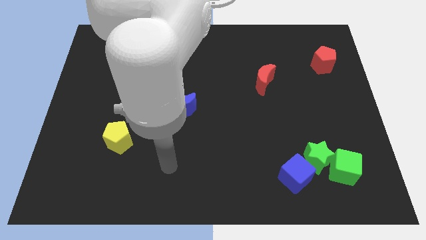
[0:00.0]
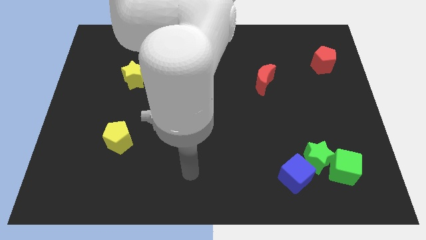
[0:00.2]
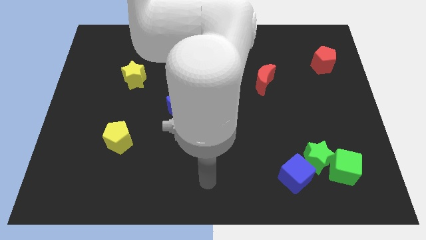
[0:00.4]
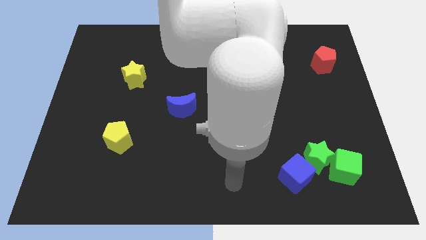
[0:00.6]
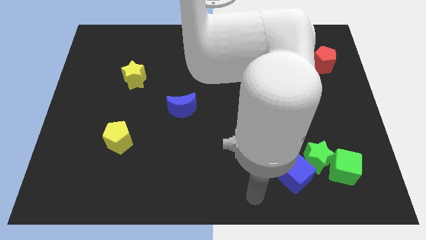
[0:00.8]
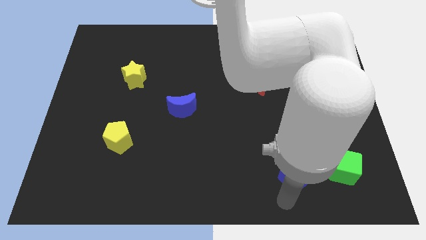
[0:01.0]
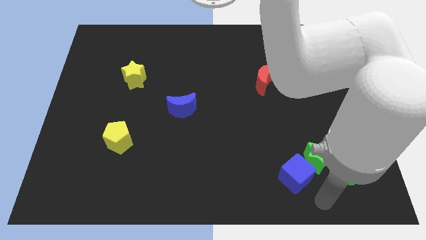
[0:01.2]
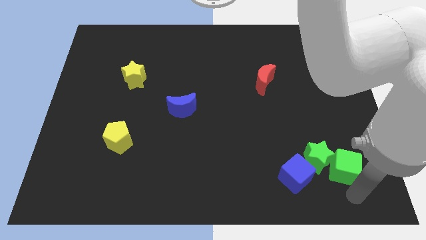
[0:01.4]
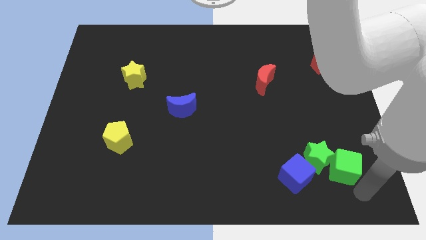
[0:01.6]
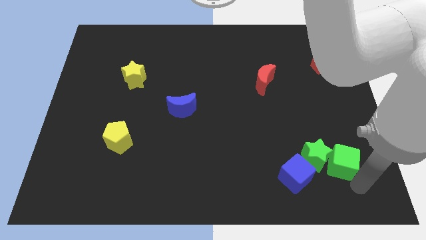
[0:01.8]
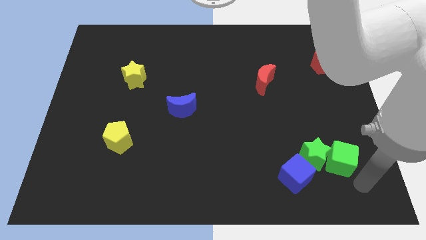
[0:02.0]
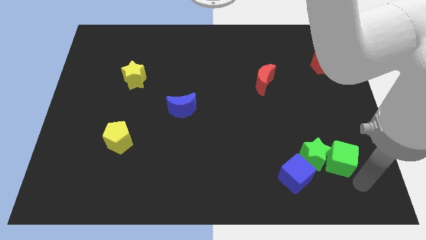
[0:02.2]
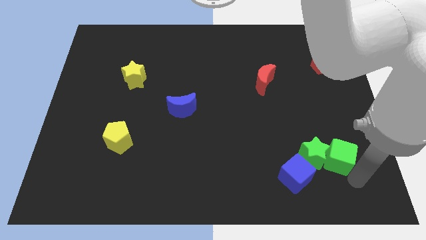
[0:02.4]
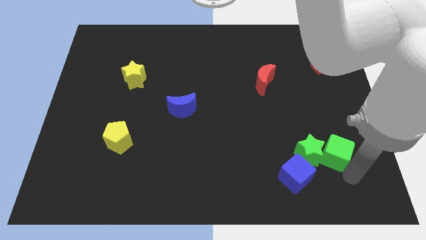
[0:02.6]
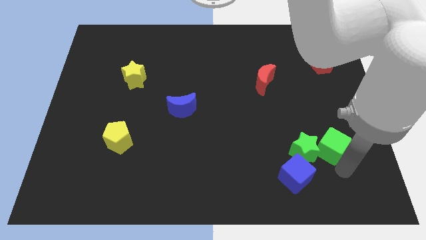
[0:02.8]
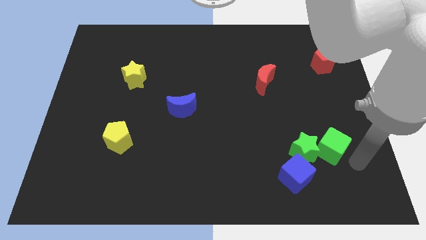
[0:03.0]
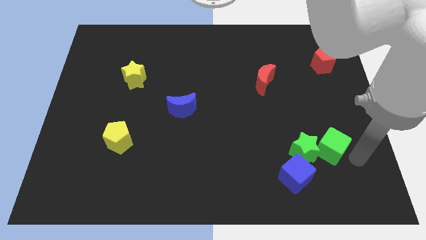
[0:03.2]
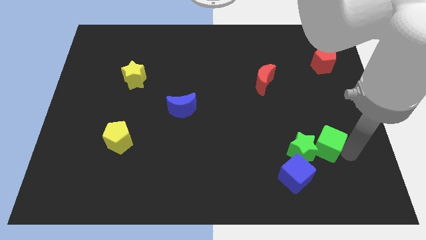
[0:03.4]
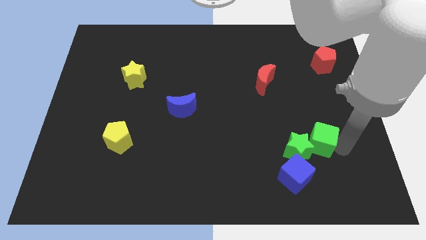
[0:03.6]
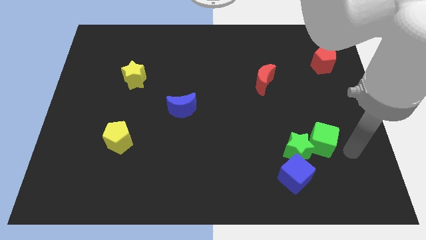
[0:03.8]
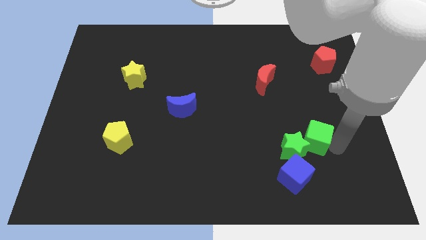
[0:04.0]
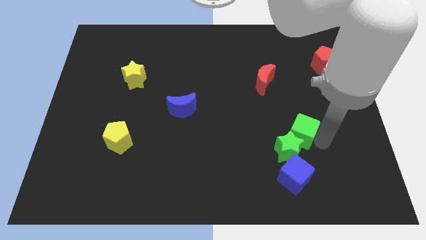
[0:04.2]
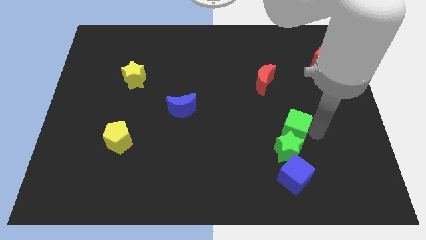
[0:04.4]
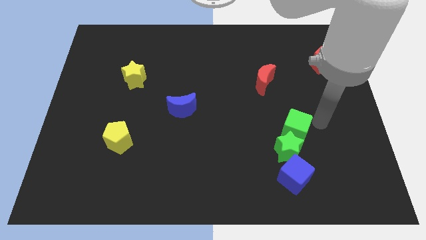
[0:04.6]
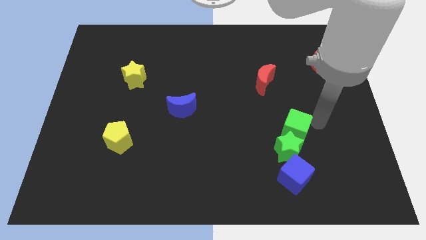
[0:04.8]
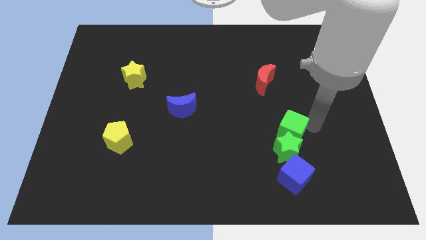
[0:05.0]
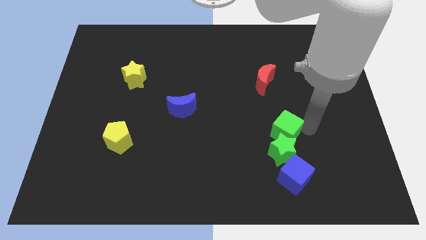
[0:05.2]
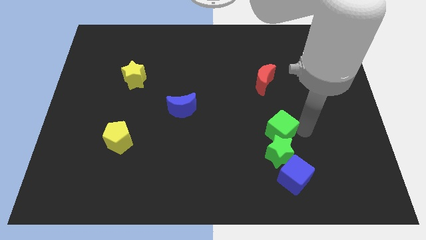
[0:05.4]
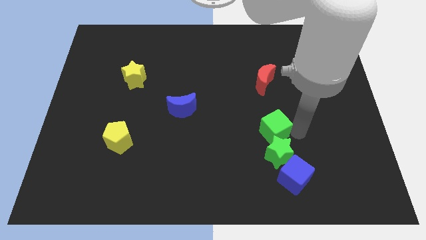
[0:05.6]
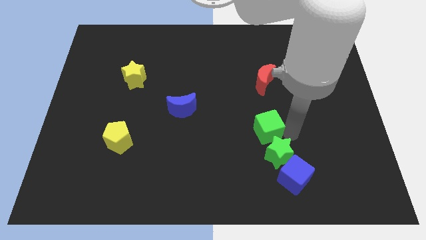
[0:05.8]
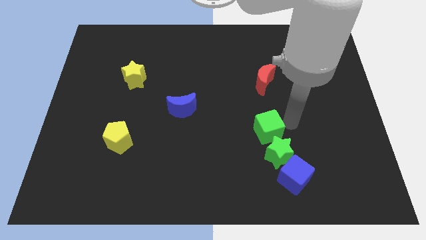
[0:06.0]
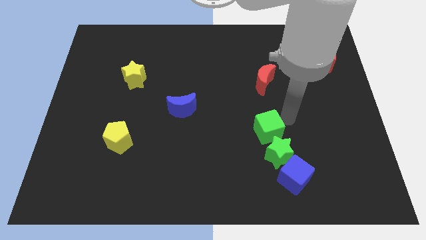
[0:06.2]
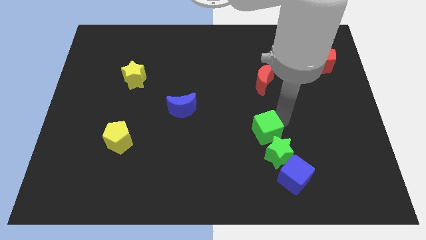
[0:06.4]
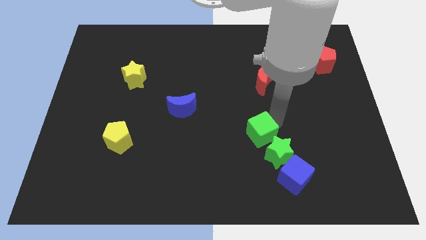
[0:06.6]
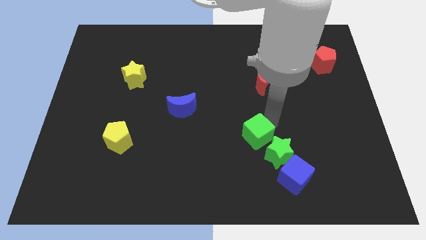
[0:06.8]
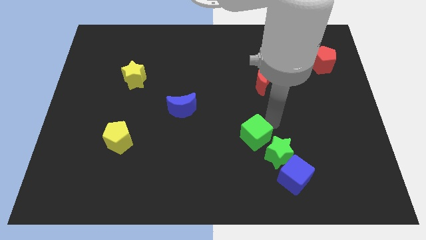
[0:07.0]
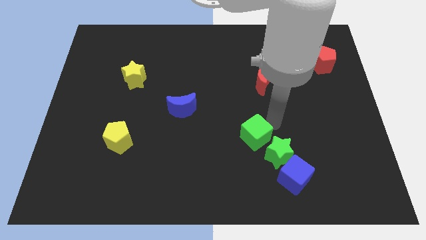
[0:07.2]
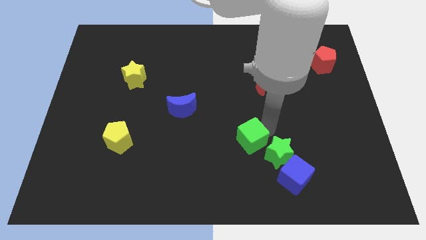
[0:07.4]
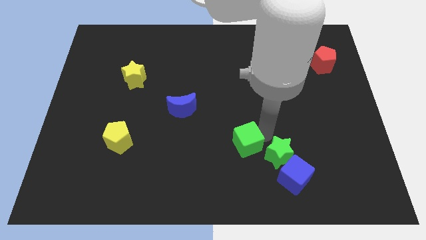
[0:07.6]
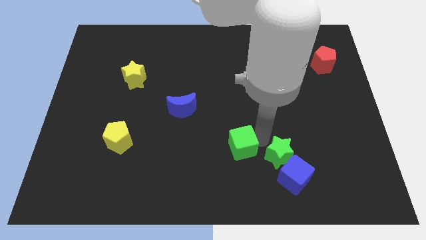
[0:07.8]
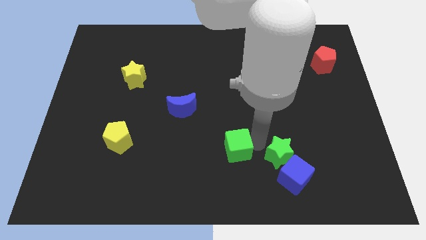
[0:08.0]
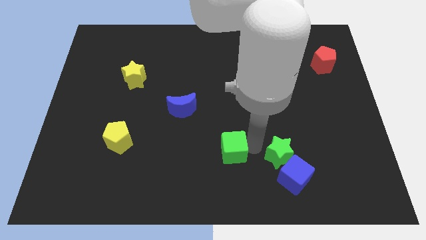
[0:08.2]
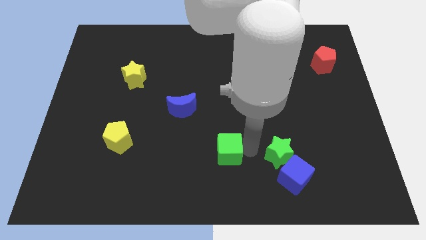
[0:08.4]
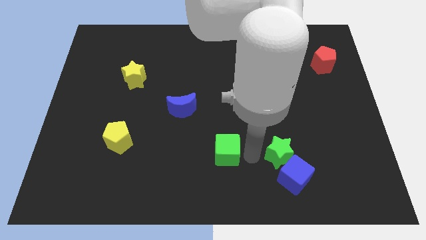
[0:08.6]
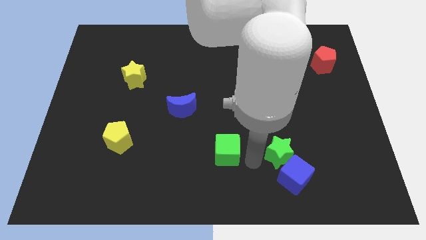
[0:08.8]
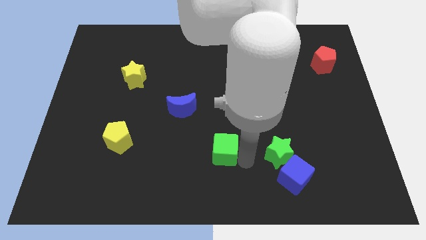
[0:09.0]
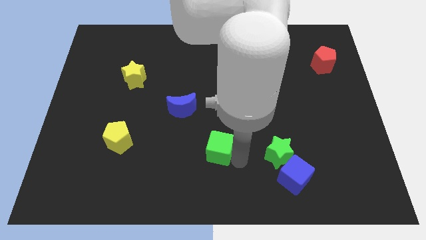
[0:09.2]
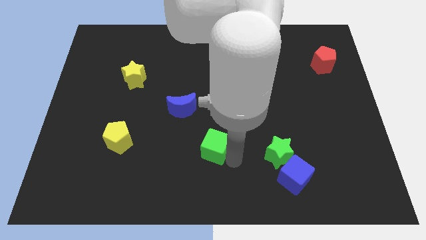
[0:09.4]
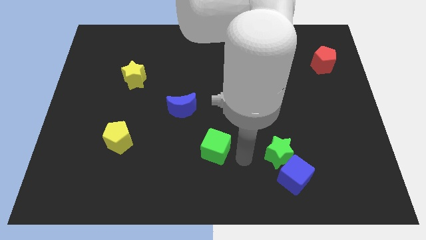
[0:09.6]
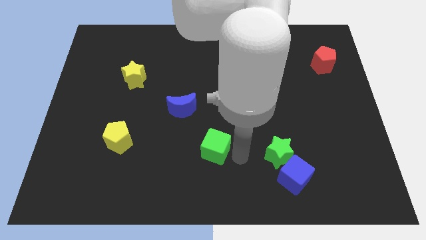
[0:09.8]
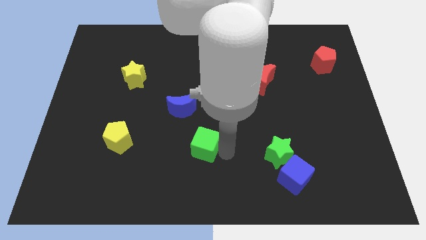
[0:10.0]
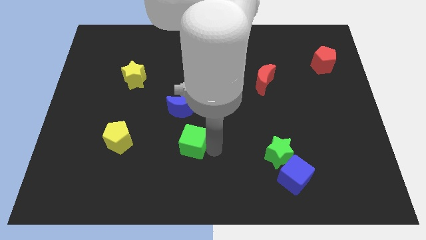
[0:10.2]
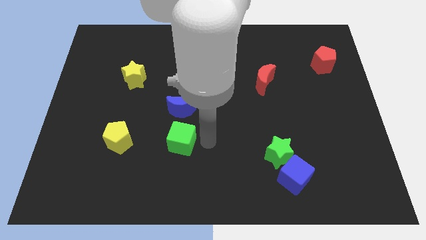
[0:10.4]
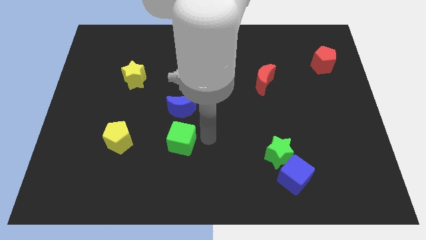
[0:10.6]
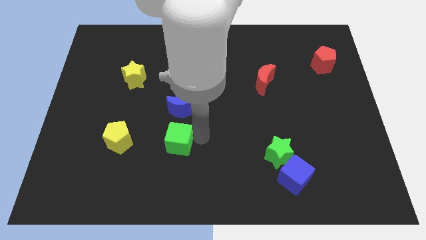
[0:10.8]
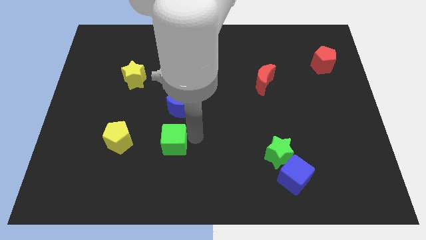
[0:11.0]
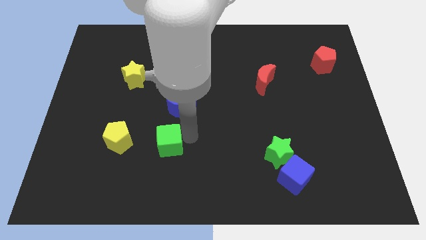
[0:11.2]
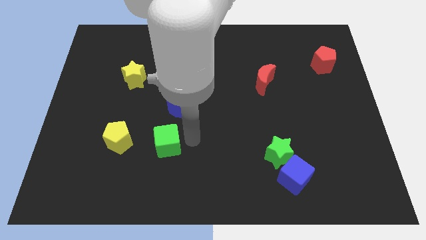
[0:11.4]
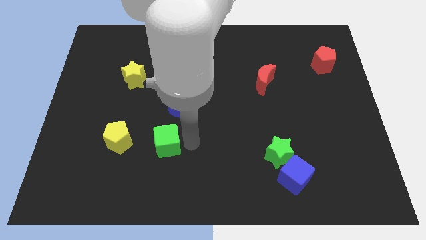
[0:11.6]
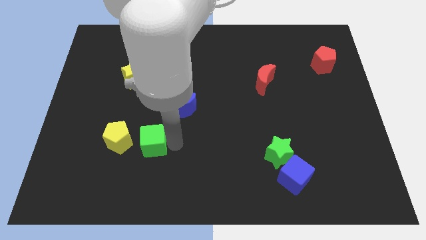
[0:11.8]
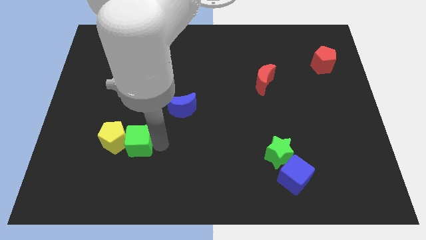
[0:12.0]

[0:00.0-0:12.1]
slide the green cube close to the yellow pentagon

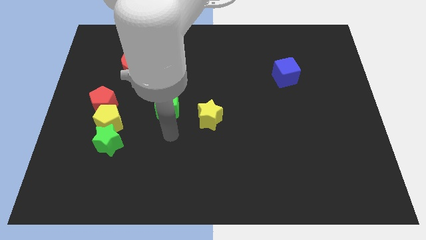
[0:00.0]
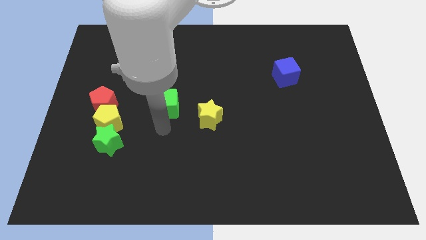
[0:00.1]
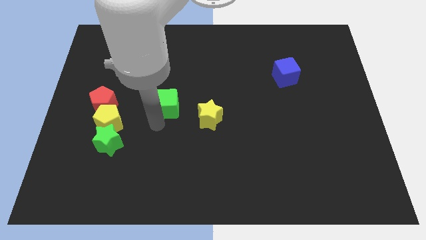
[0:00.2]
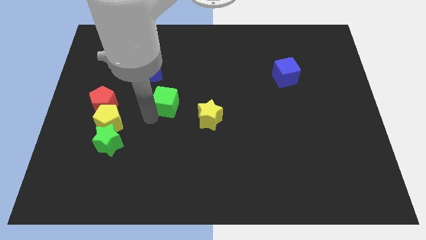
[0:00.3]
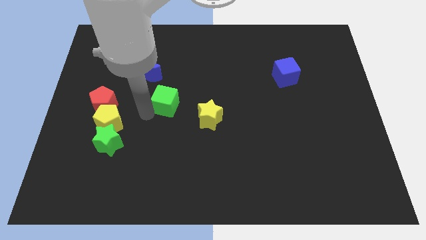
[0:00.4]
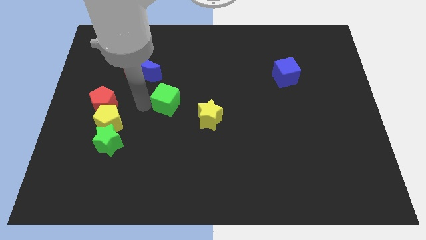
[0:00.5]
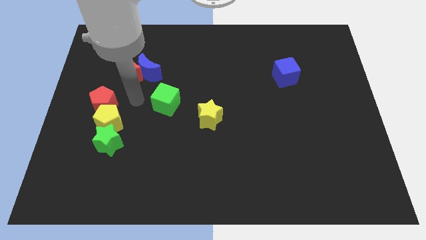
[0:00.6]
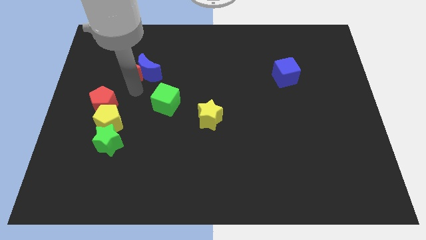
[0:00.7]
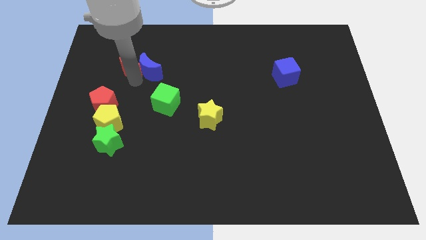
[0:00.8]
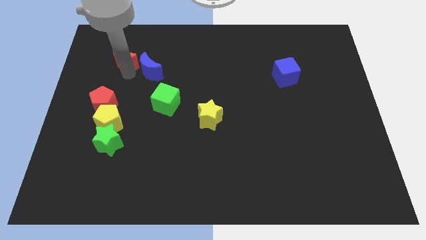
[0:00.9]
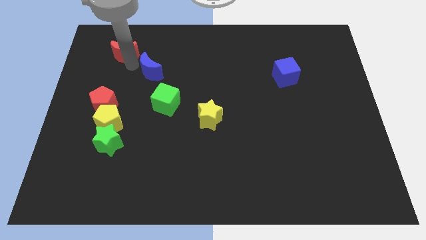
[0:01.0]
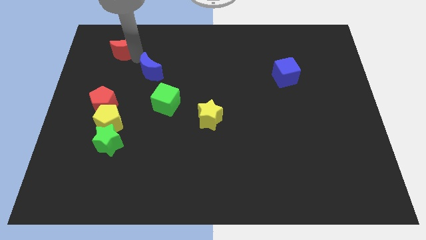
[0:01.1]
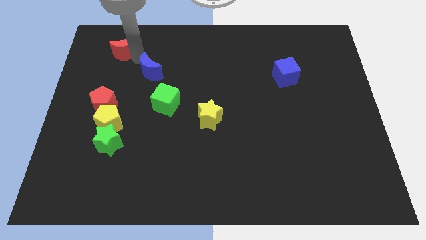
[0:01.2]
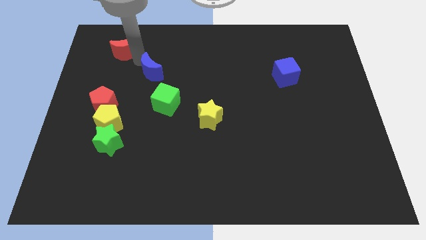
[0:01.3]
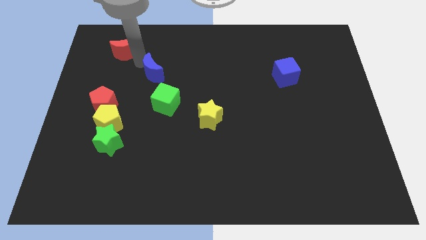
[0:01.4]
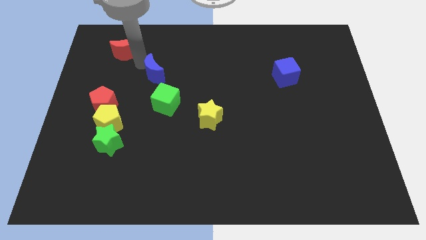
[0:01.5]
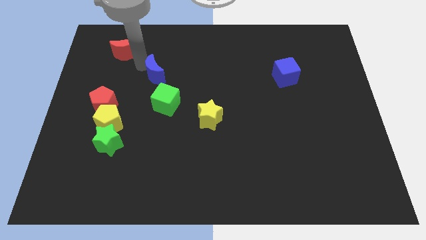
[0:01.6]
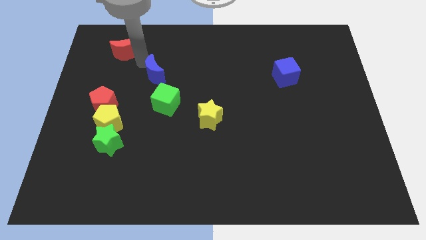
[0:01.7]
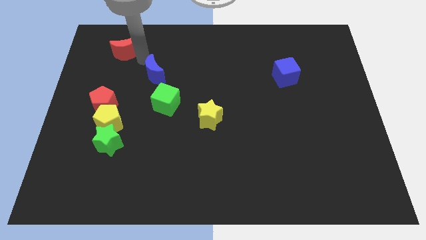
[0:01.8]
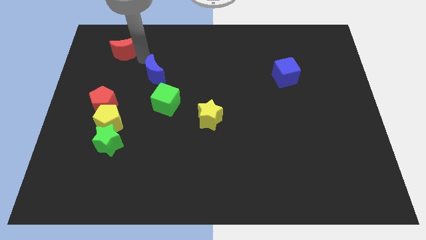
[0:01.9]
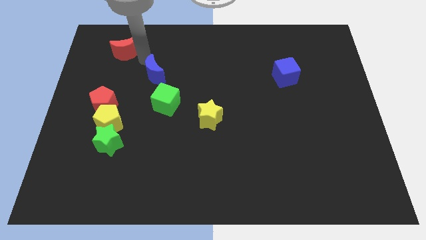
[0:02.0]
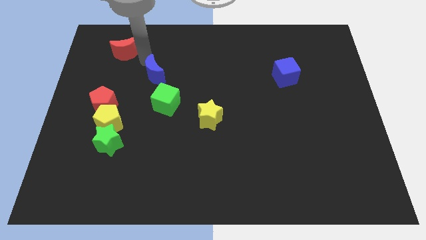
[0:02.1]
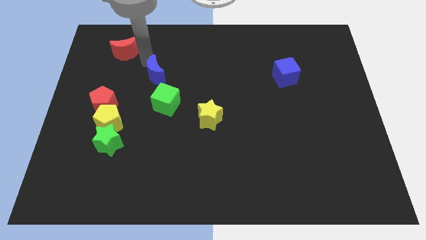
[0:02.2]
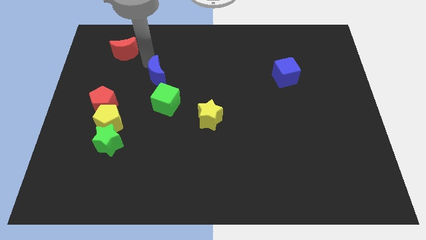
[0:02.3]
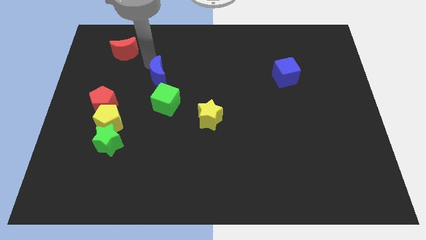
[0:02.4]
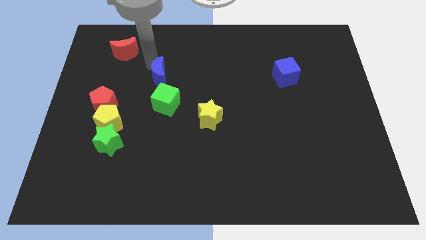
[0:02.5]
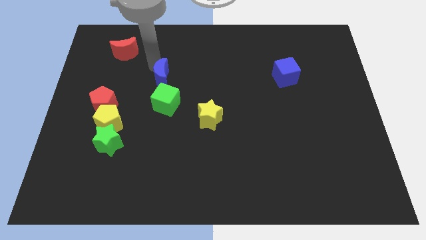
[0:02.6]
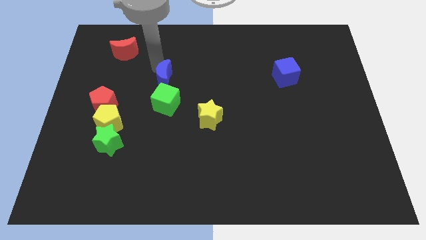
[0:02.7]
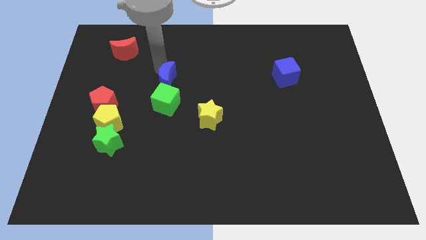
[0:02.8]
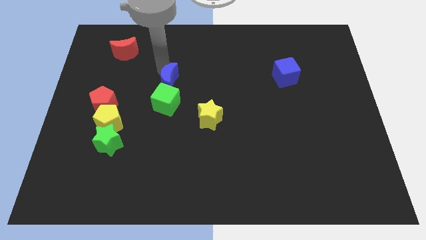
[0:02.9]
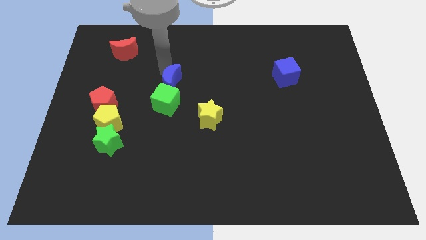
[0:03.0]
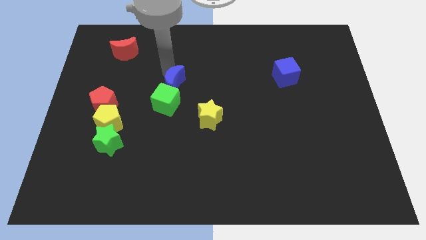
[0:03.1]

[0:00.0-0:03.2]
put the blue moon close to the green cube
